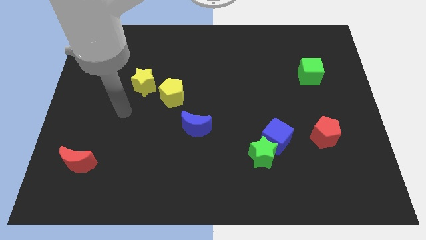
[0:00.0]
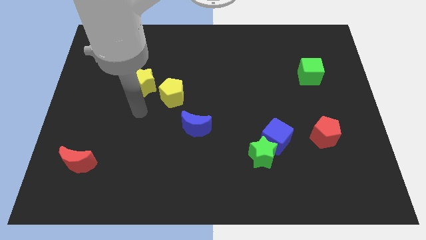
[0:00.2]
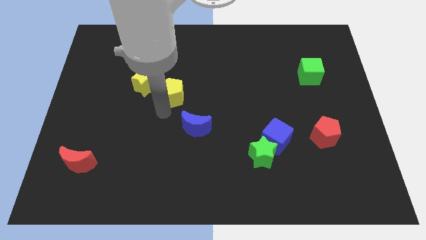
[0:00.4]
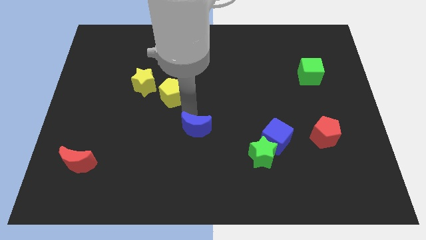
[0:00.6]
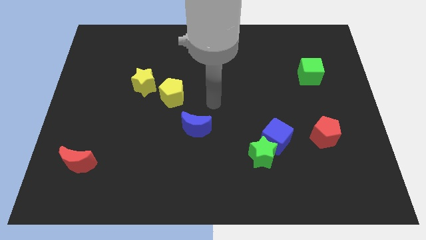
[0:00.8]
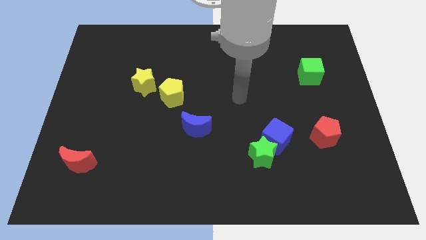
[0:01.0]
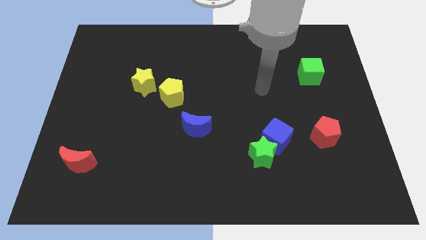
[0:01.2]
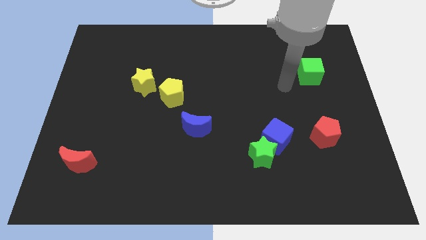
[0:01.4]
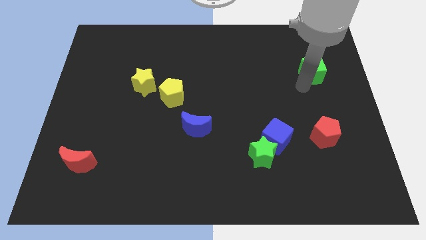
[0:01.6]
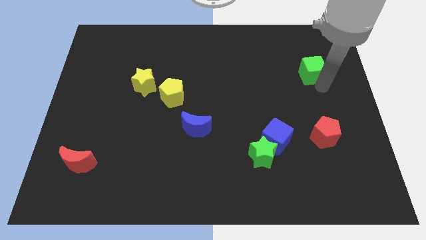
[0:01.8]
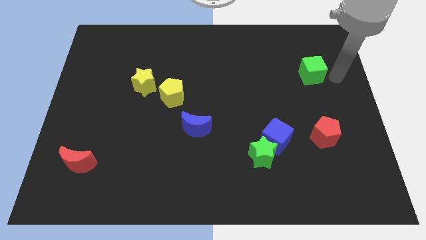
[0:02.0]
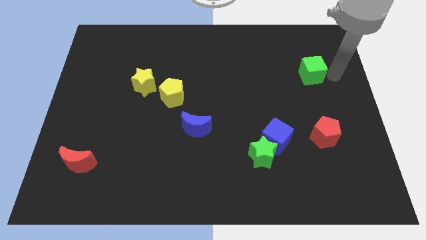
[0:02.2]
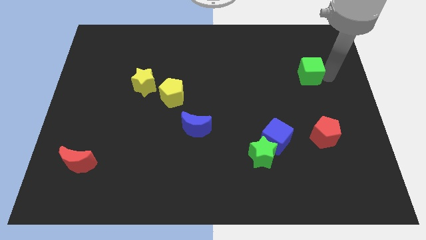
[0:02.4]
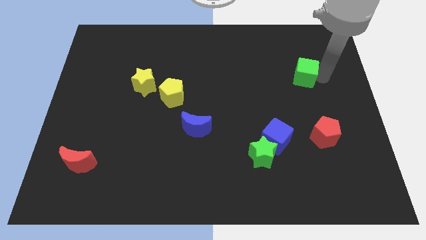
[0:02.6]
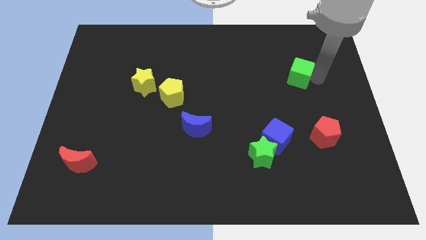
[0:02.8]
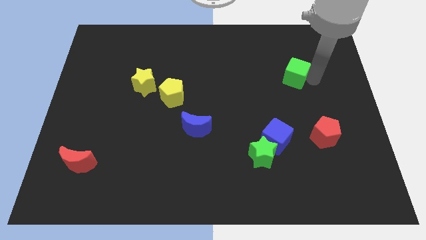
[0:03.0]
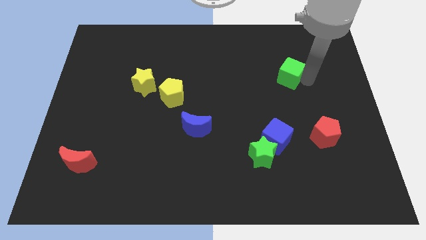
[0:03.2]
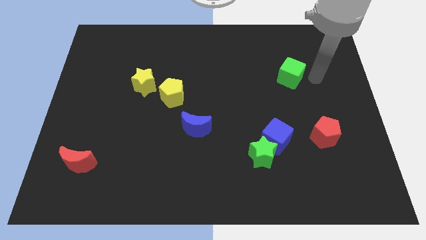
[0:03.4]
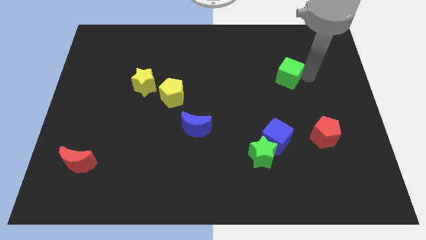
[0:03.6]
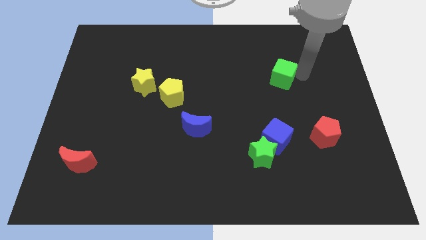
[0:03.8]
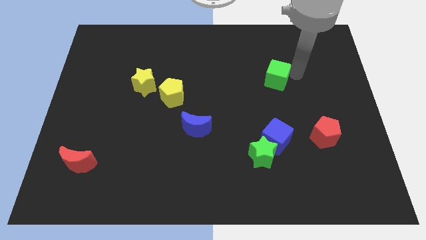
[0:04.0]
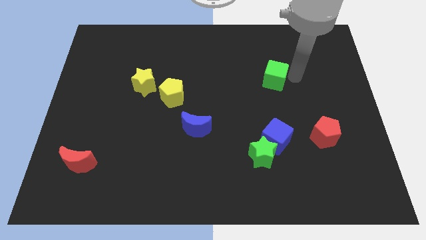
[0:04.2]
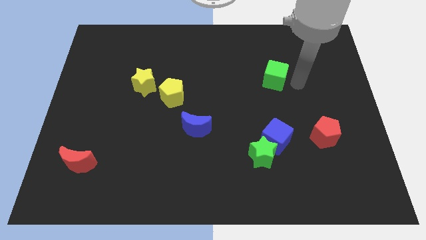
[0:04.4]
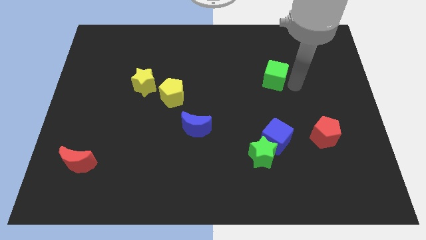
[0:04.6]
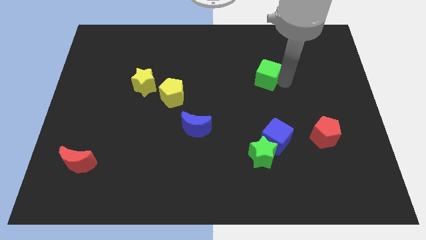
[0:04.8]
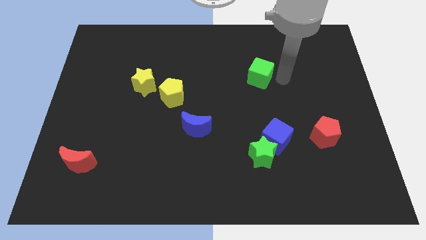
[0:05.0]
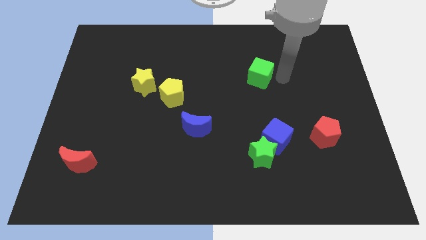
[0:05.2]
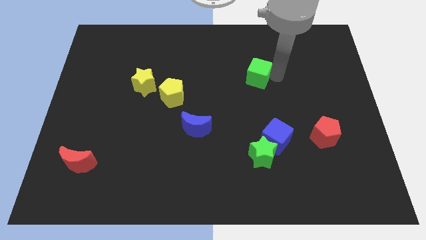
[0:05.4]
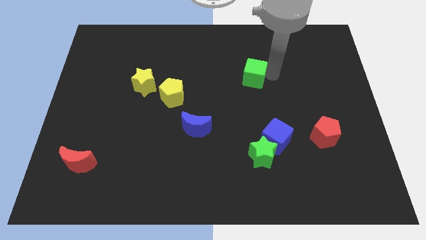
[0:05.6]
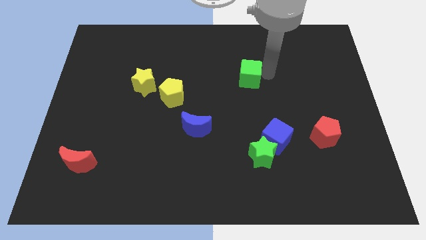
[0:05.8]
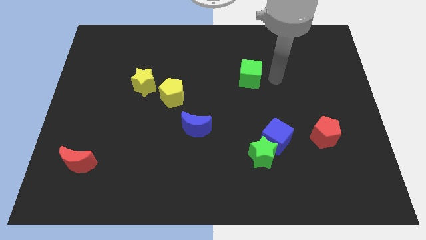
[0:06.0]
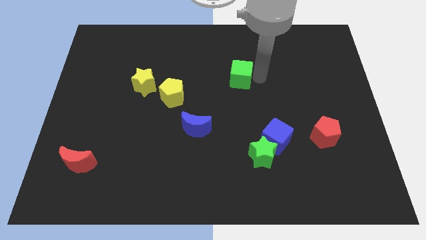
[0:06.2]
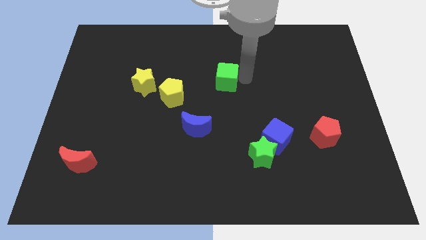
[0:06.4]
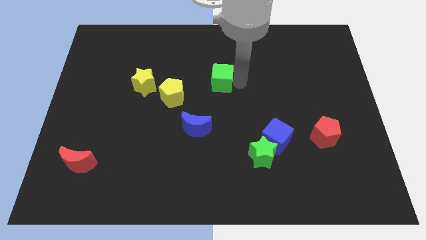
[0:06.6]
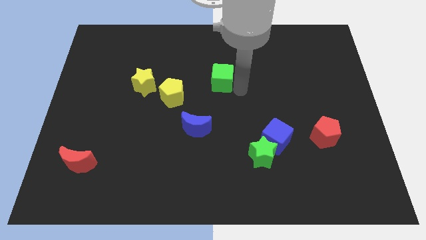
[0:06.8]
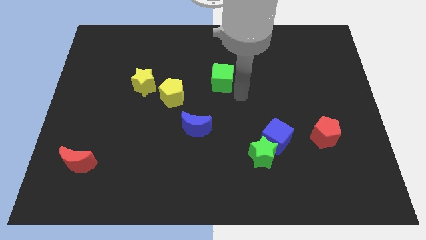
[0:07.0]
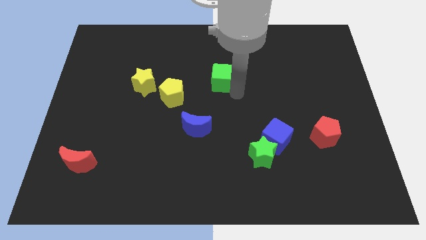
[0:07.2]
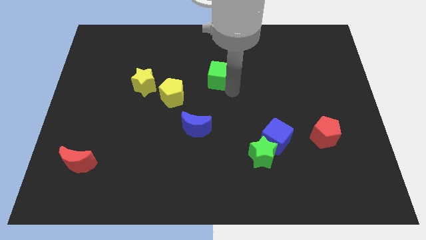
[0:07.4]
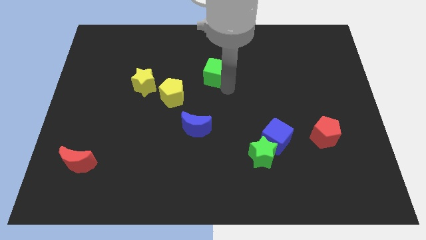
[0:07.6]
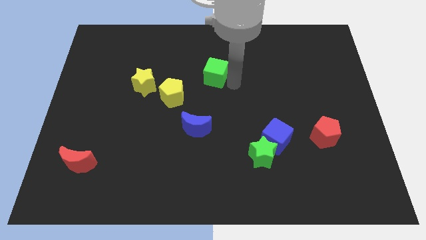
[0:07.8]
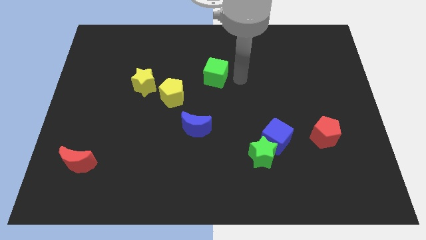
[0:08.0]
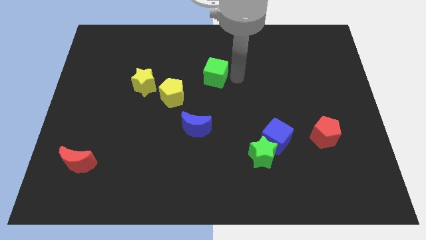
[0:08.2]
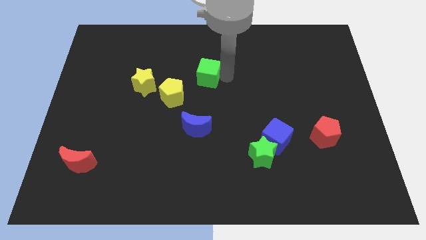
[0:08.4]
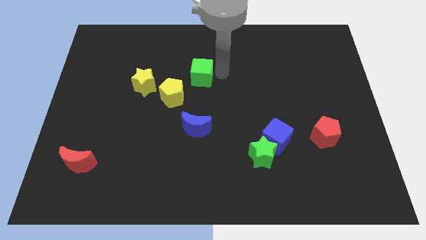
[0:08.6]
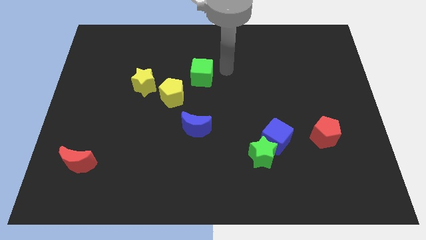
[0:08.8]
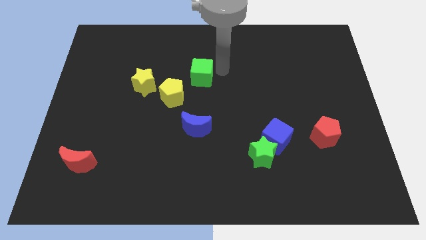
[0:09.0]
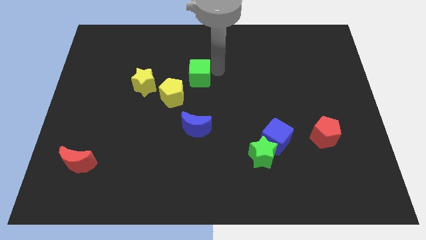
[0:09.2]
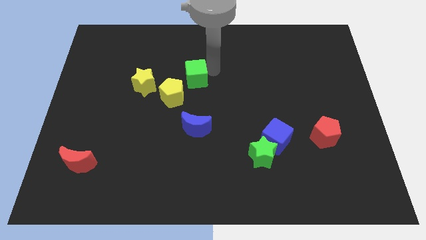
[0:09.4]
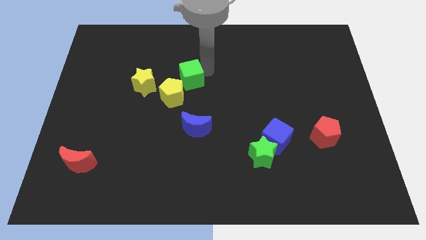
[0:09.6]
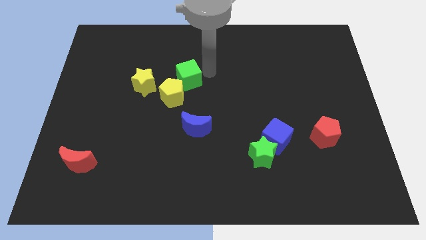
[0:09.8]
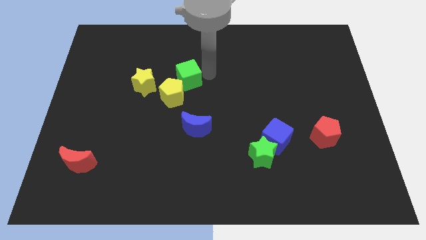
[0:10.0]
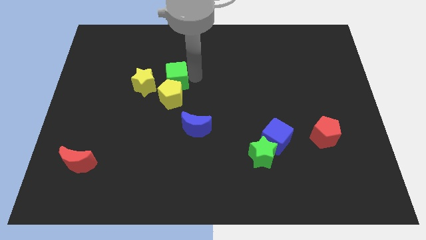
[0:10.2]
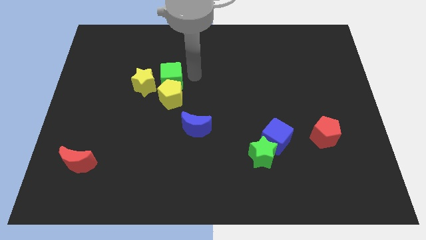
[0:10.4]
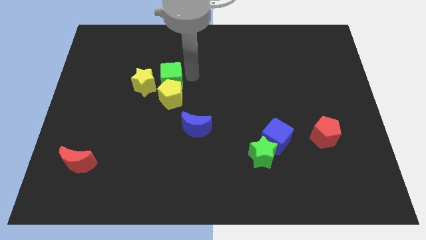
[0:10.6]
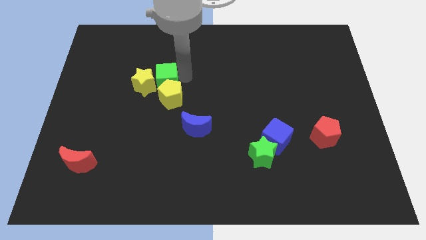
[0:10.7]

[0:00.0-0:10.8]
put the green cube to the yellow star

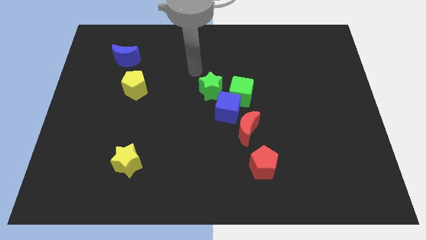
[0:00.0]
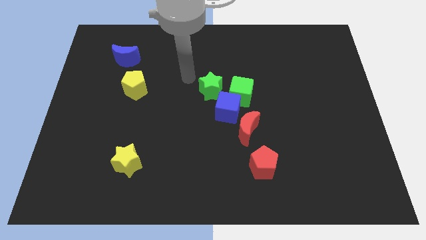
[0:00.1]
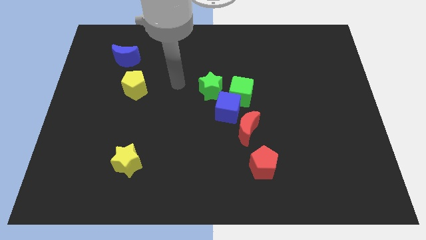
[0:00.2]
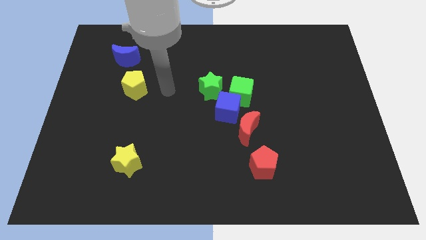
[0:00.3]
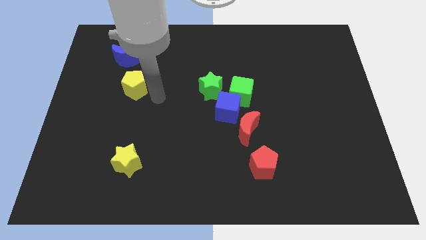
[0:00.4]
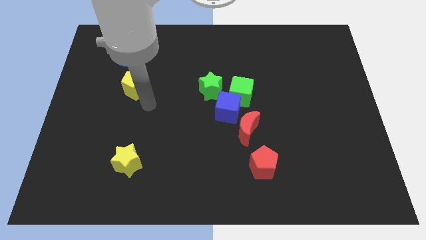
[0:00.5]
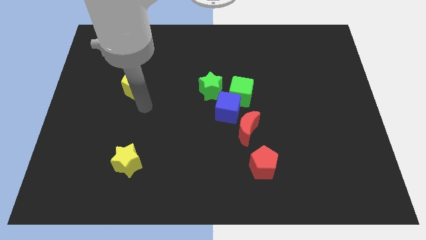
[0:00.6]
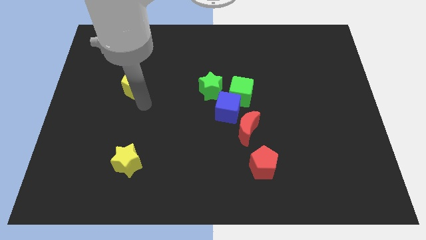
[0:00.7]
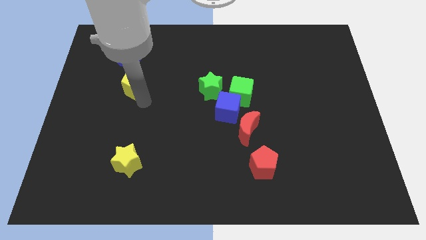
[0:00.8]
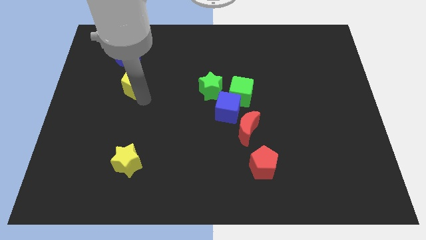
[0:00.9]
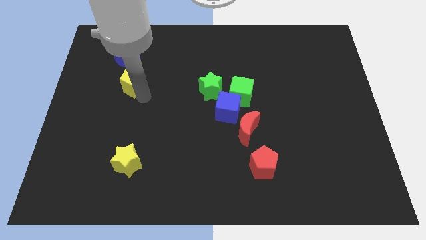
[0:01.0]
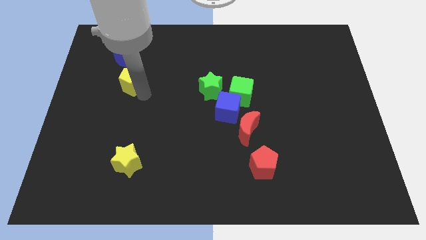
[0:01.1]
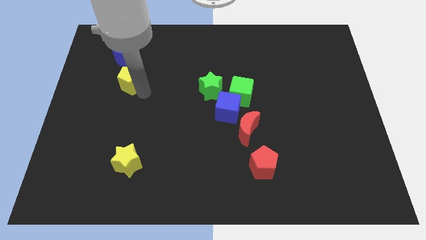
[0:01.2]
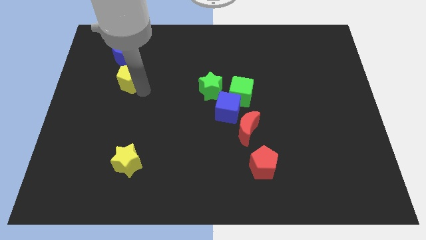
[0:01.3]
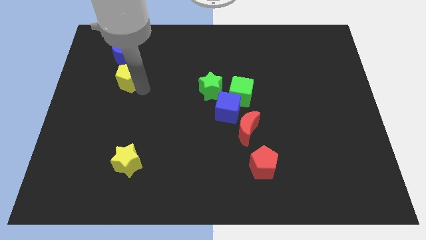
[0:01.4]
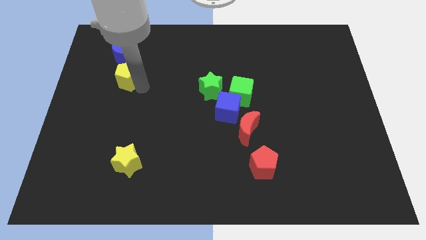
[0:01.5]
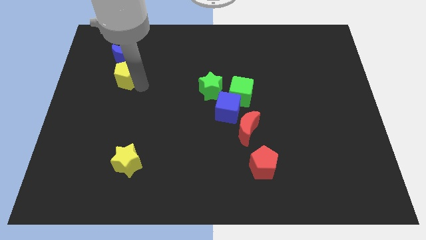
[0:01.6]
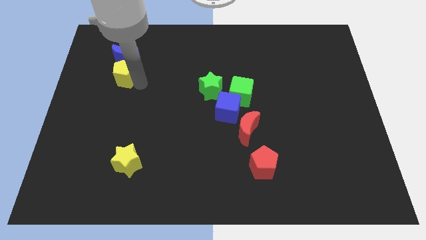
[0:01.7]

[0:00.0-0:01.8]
slide the yellow pentagon to the blue moon
